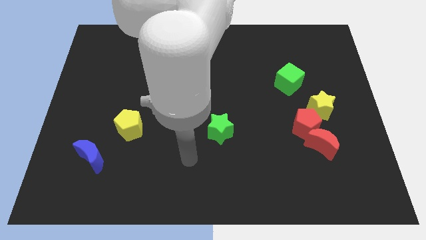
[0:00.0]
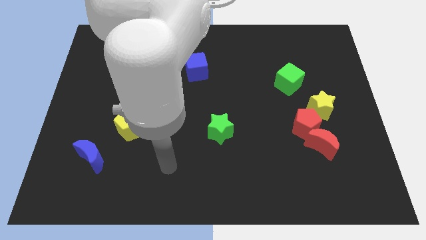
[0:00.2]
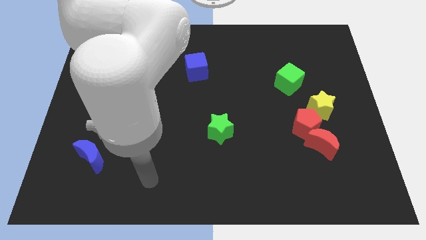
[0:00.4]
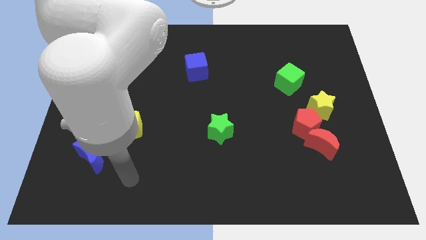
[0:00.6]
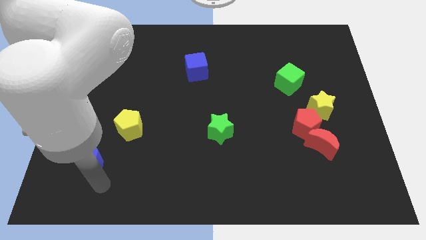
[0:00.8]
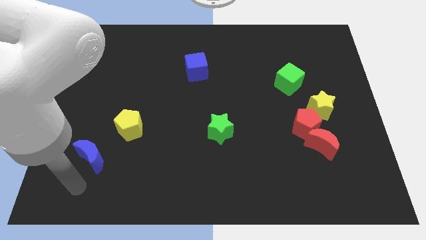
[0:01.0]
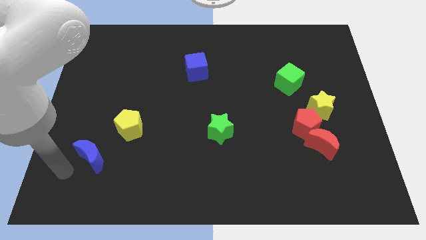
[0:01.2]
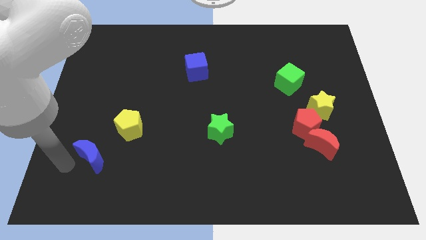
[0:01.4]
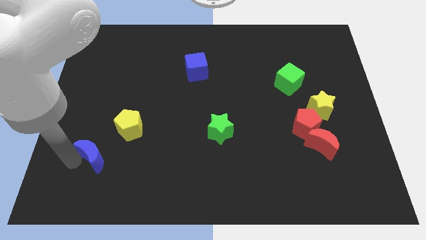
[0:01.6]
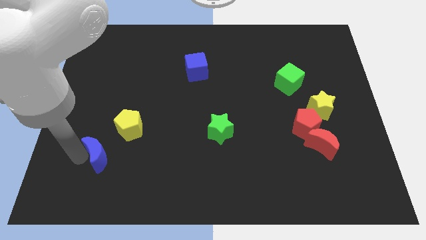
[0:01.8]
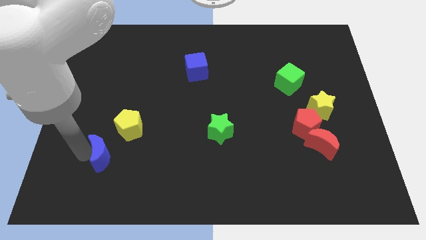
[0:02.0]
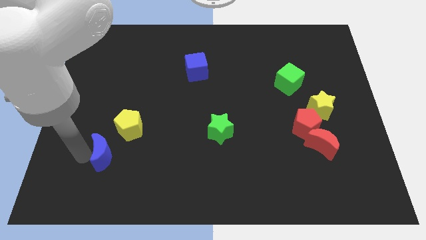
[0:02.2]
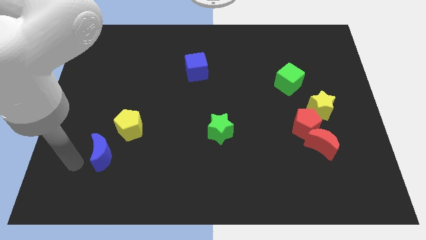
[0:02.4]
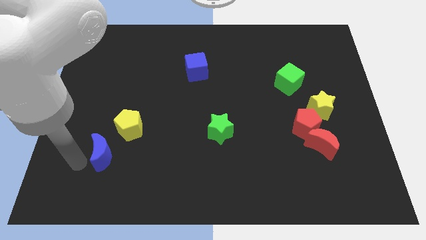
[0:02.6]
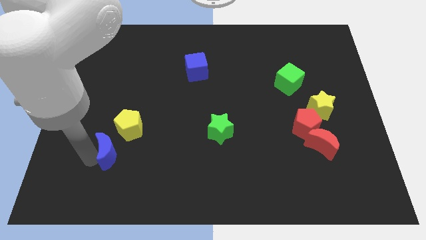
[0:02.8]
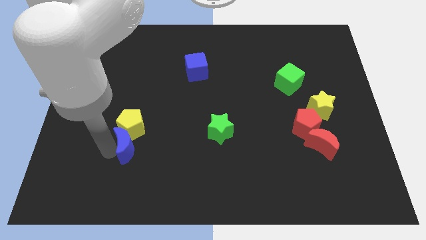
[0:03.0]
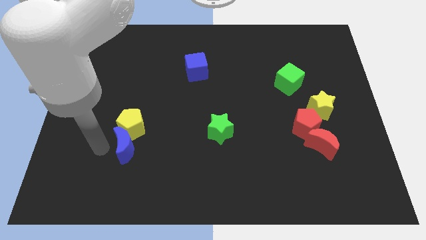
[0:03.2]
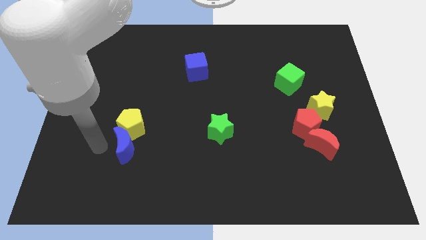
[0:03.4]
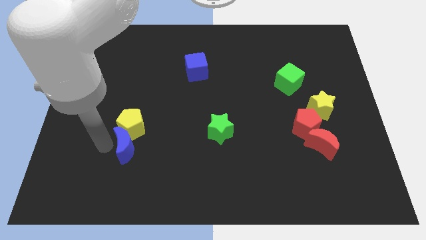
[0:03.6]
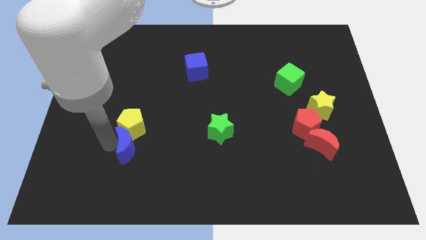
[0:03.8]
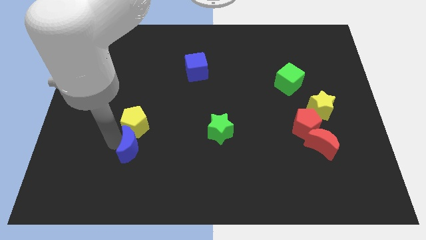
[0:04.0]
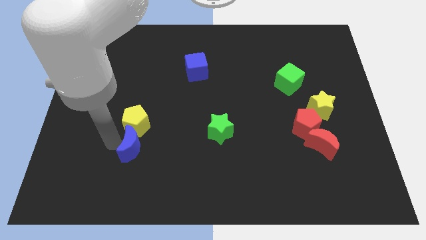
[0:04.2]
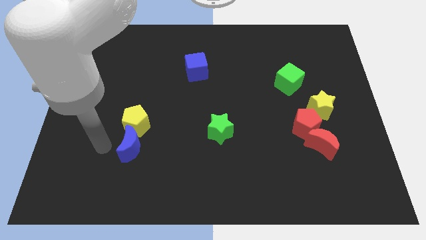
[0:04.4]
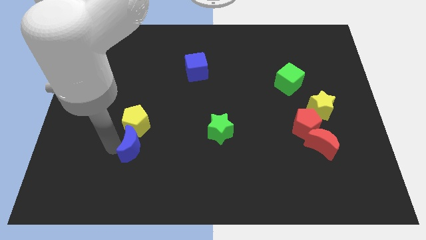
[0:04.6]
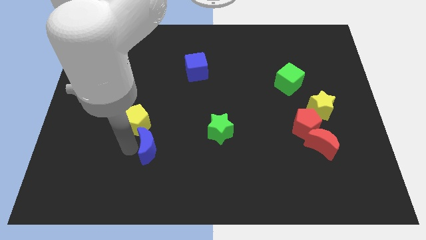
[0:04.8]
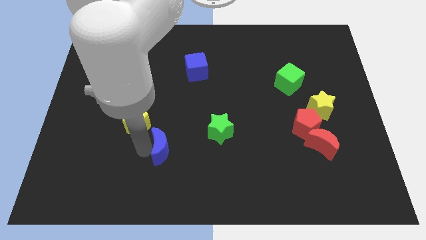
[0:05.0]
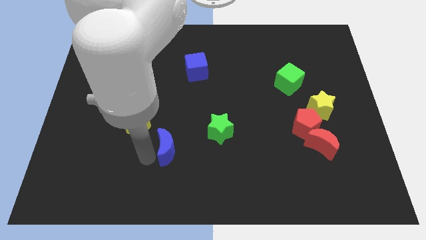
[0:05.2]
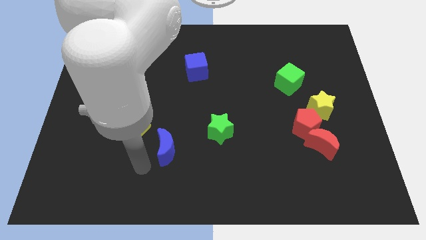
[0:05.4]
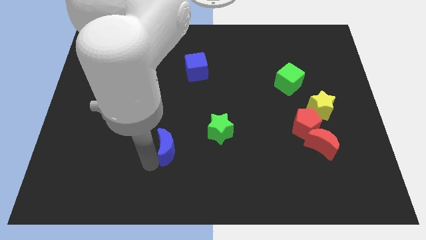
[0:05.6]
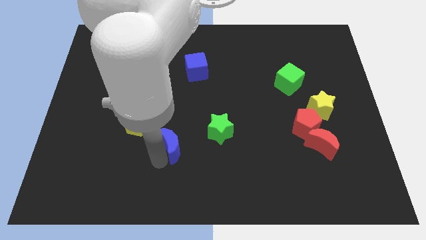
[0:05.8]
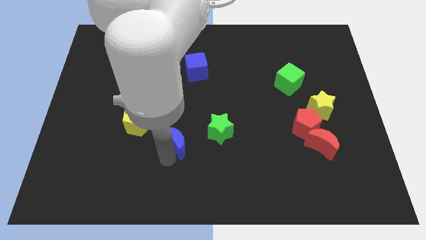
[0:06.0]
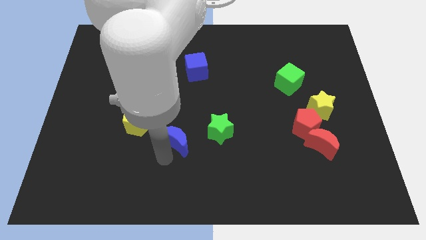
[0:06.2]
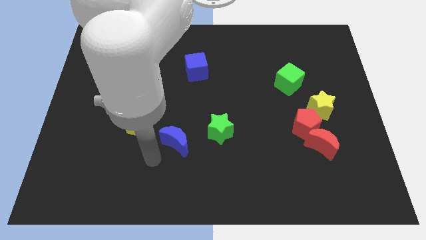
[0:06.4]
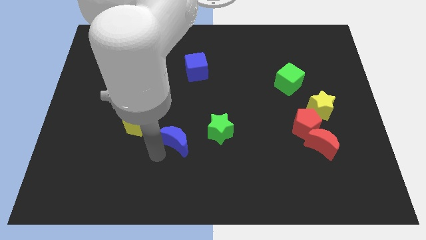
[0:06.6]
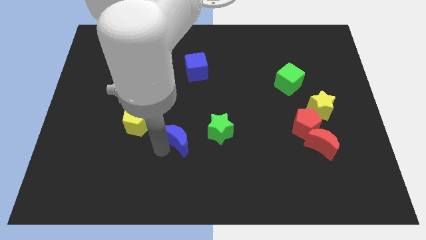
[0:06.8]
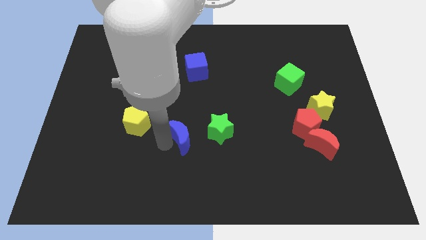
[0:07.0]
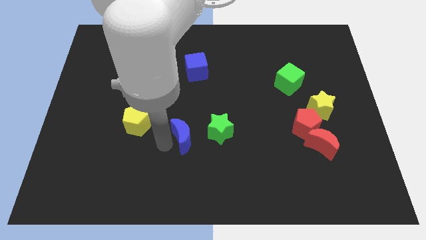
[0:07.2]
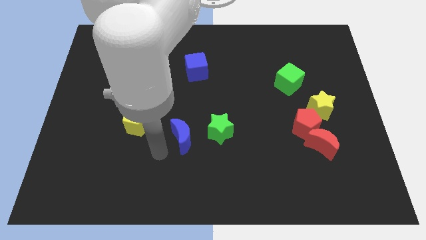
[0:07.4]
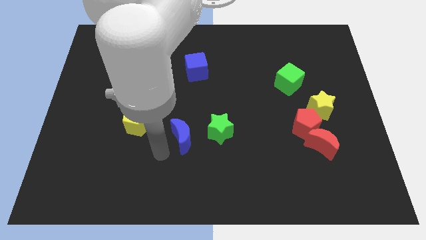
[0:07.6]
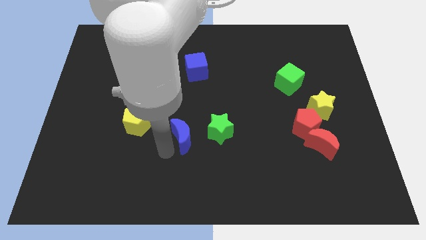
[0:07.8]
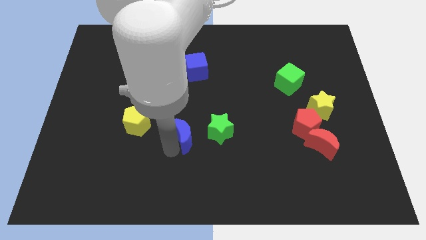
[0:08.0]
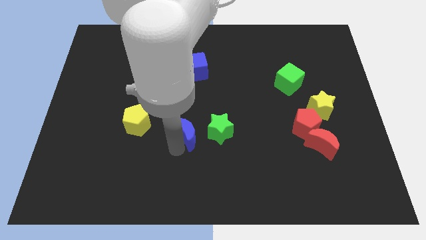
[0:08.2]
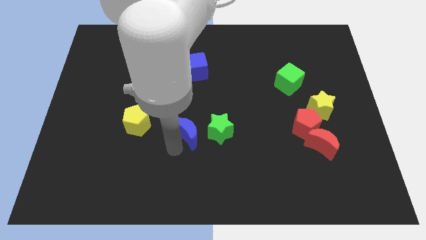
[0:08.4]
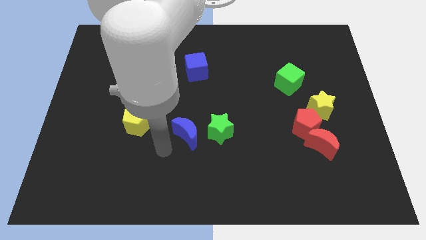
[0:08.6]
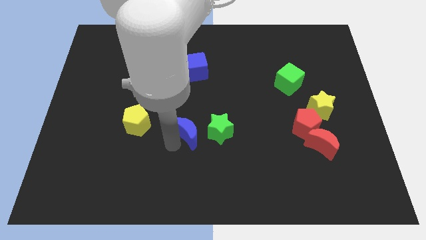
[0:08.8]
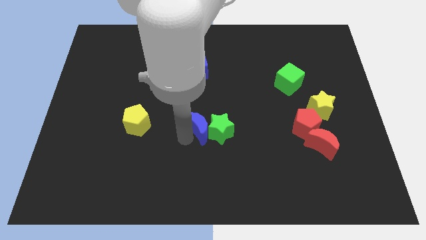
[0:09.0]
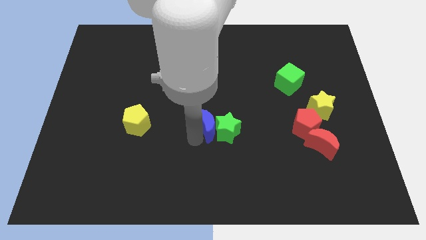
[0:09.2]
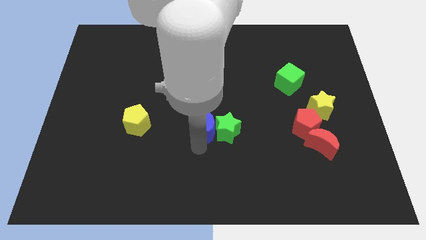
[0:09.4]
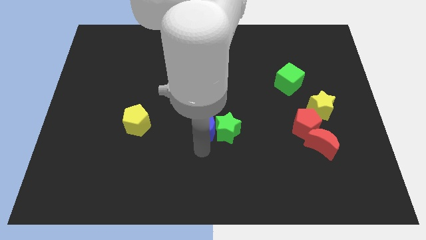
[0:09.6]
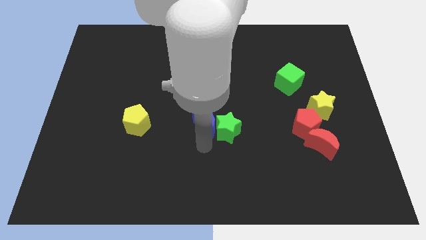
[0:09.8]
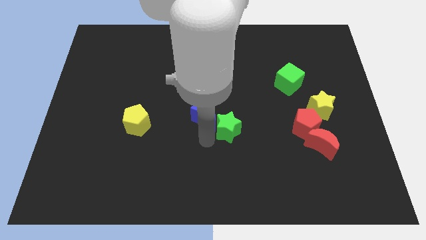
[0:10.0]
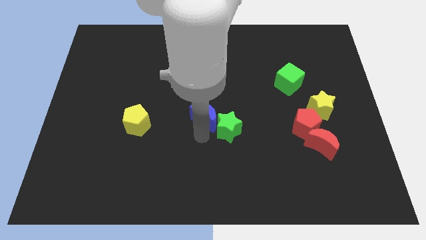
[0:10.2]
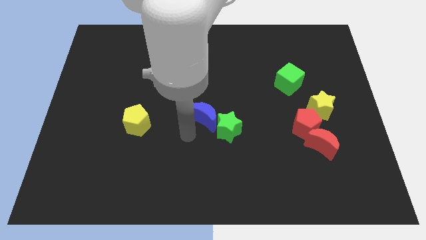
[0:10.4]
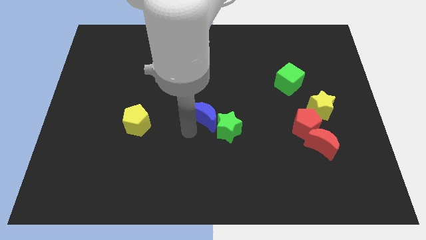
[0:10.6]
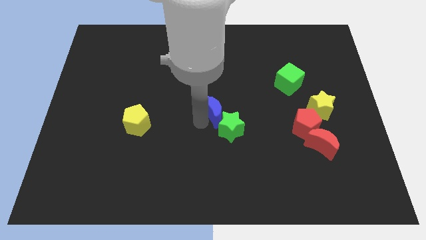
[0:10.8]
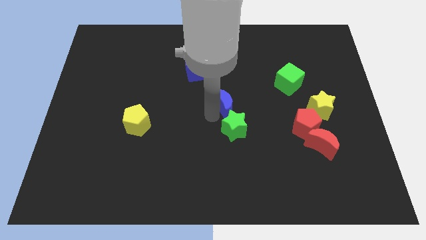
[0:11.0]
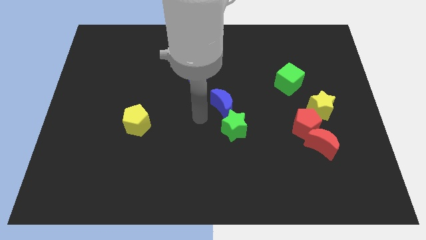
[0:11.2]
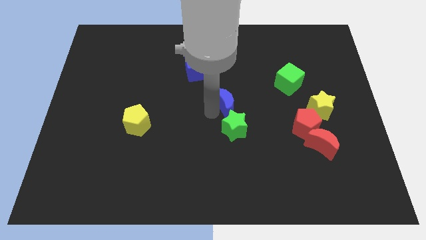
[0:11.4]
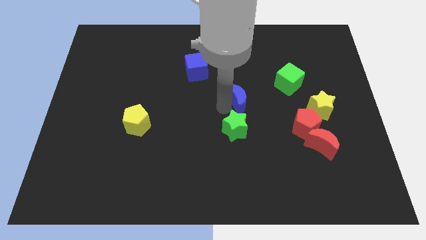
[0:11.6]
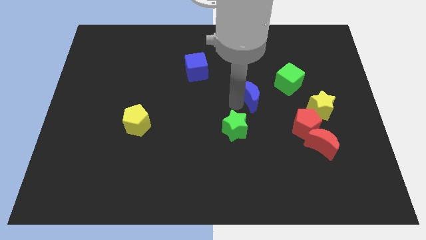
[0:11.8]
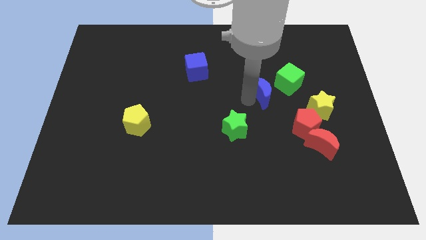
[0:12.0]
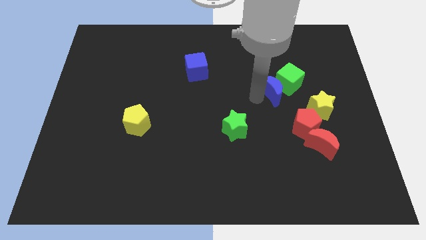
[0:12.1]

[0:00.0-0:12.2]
slide the blue moon to the green cube

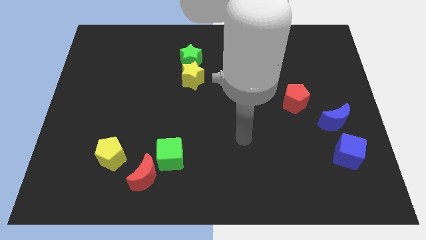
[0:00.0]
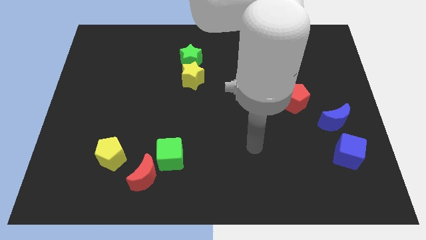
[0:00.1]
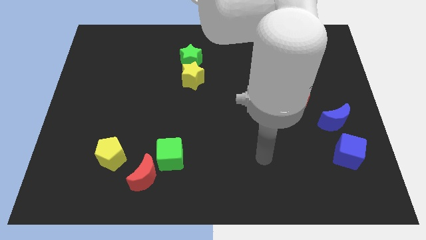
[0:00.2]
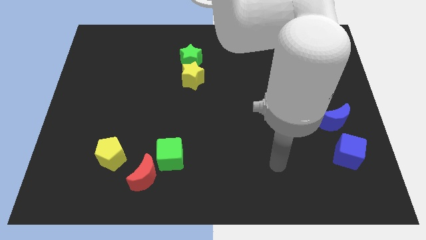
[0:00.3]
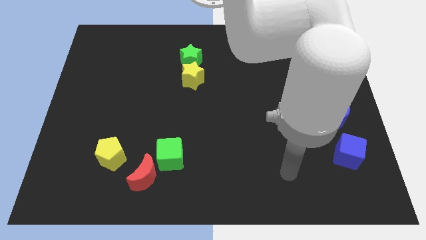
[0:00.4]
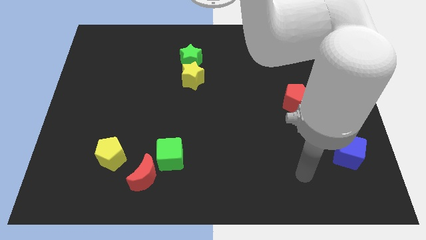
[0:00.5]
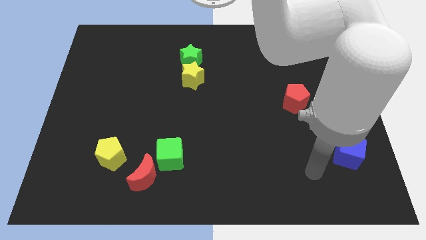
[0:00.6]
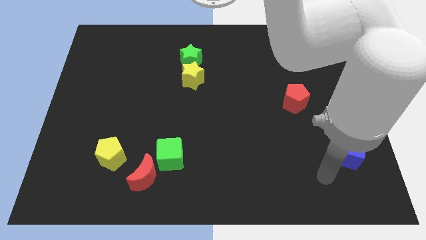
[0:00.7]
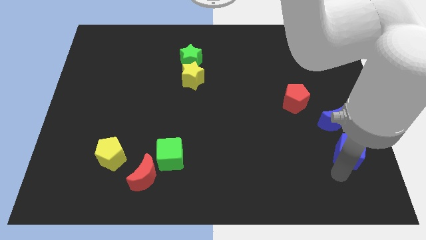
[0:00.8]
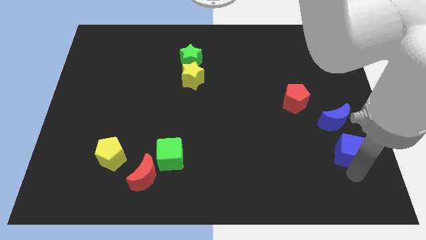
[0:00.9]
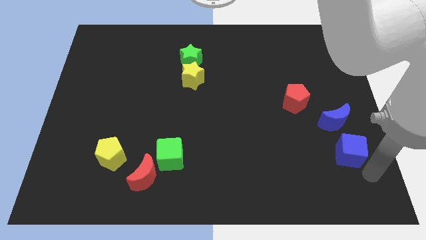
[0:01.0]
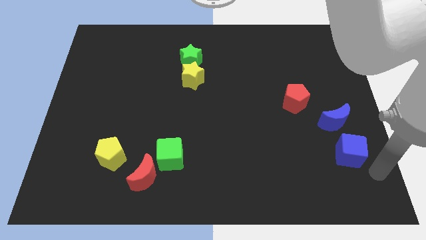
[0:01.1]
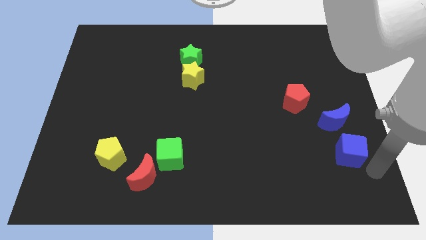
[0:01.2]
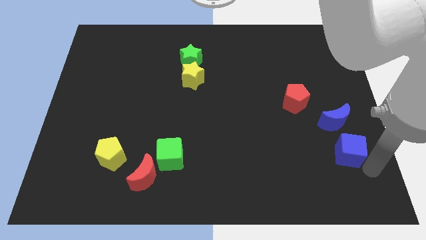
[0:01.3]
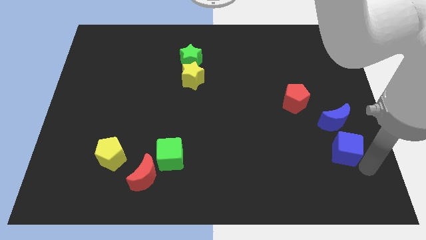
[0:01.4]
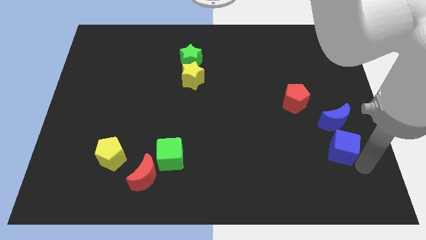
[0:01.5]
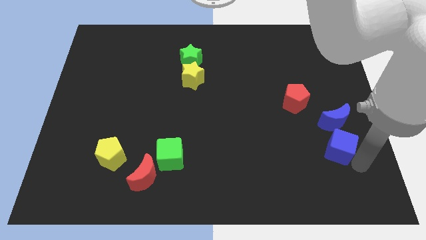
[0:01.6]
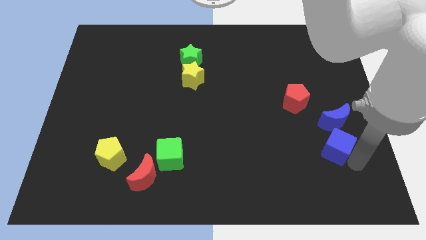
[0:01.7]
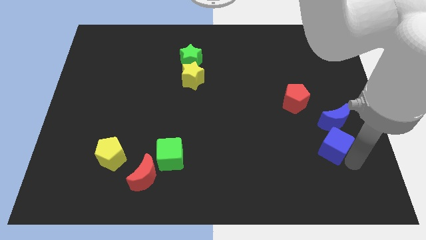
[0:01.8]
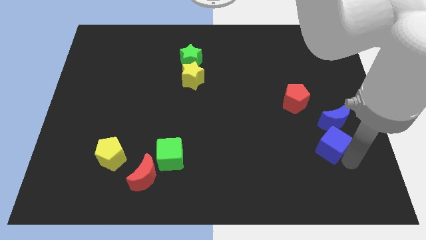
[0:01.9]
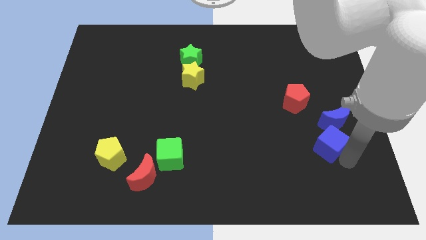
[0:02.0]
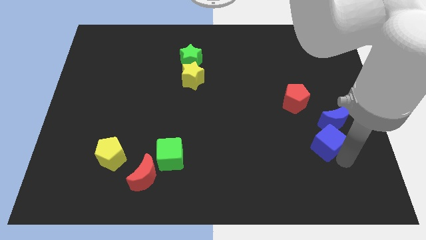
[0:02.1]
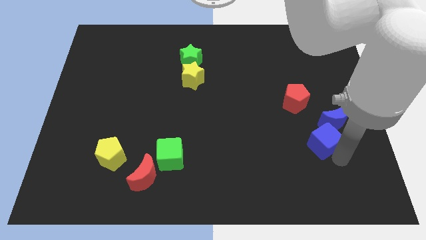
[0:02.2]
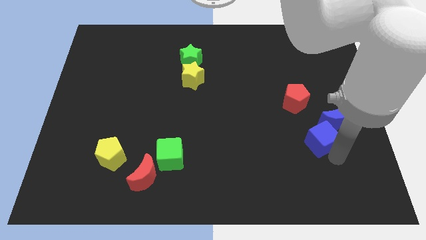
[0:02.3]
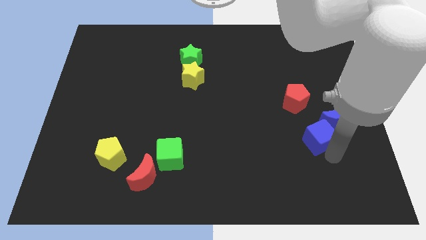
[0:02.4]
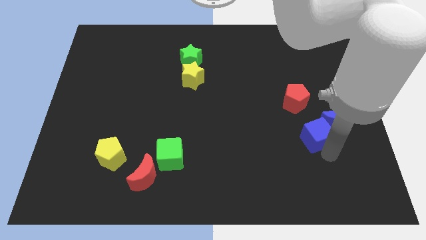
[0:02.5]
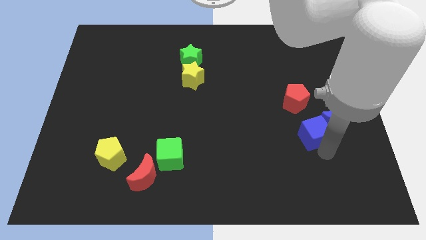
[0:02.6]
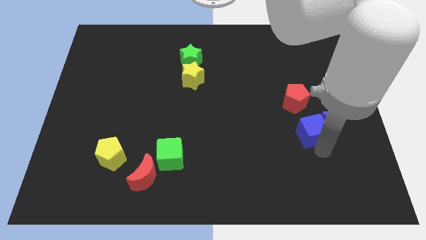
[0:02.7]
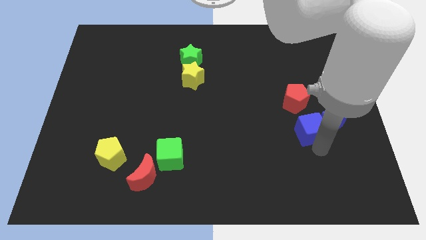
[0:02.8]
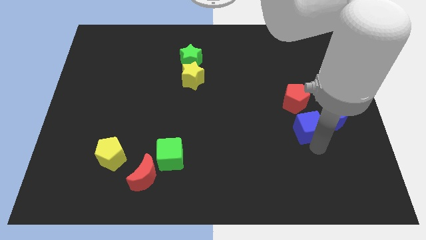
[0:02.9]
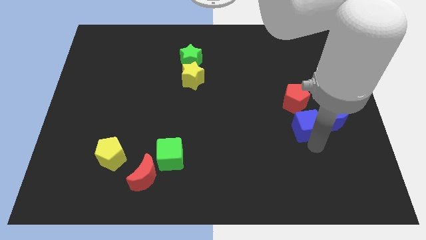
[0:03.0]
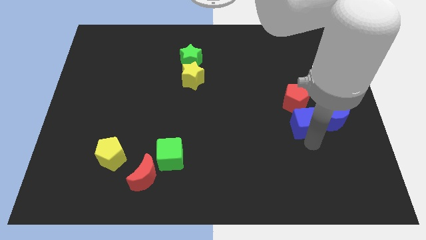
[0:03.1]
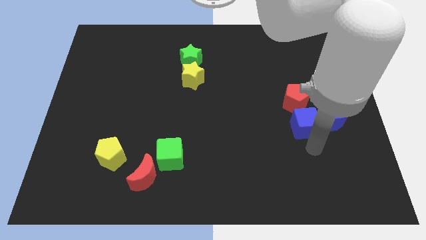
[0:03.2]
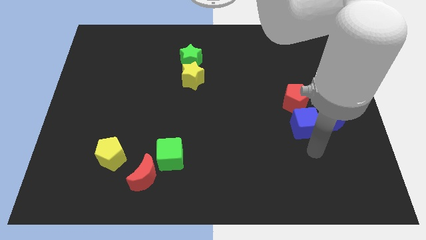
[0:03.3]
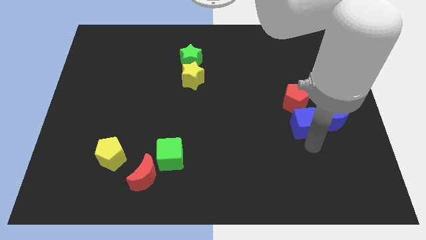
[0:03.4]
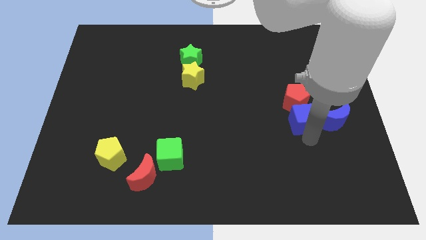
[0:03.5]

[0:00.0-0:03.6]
push the blue cube close to the red pentagon
